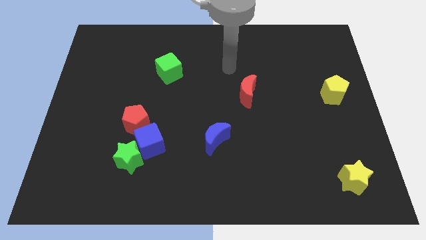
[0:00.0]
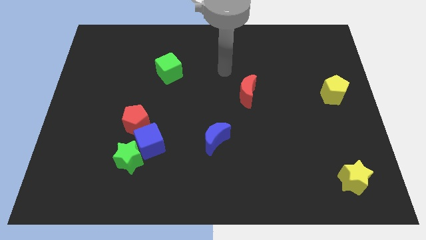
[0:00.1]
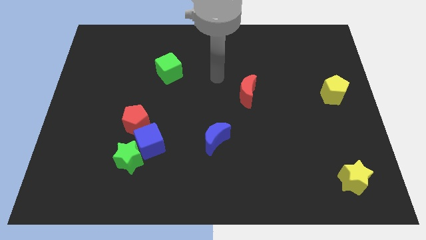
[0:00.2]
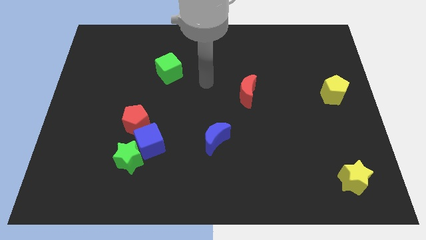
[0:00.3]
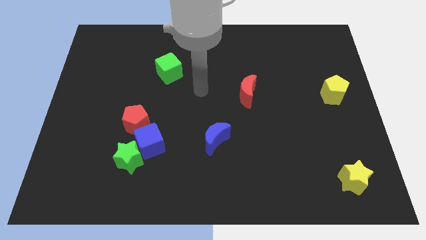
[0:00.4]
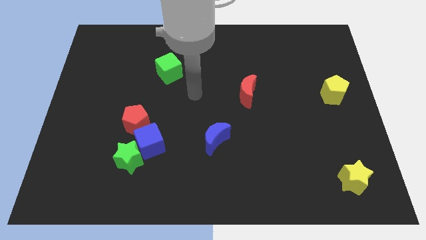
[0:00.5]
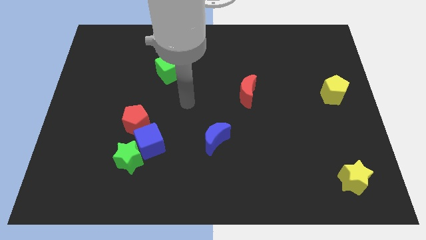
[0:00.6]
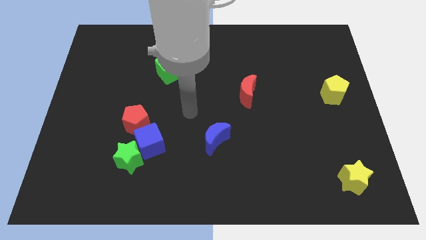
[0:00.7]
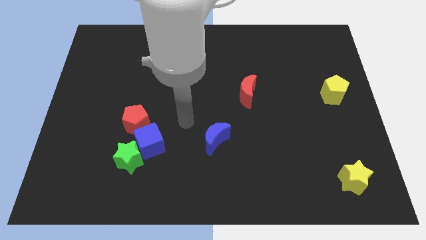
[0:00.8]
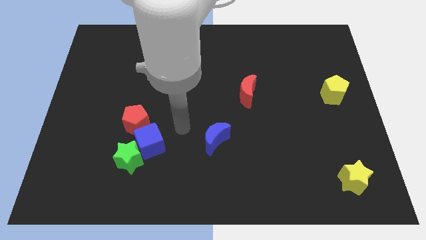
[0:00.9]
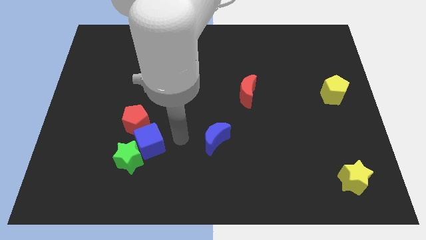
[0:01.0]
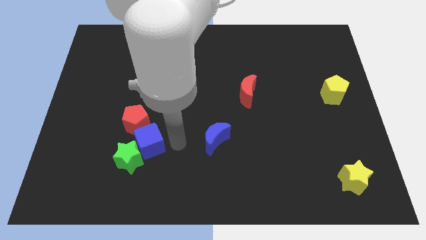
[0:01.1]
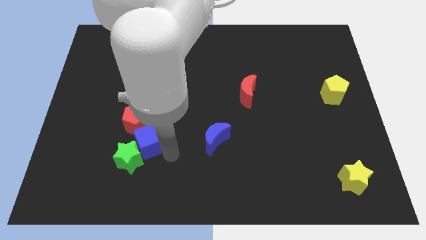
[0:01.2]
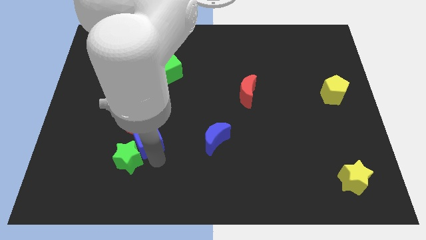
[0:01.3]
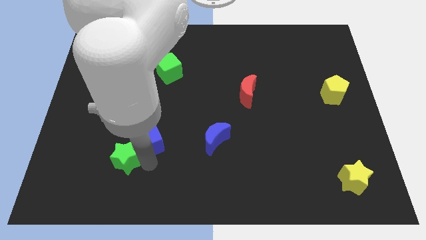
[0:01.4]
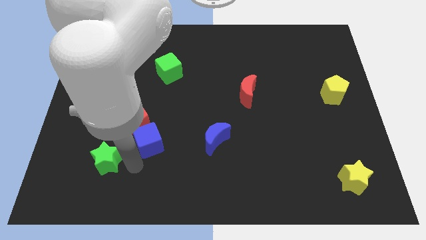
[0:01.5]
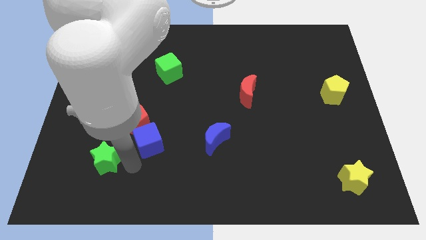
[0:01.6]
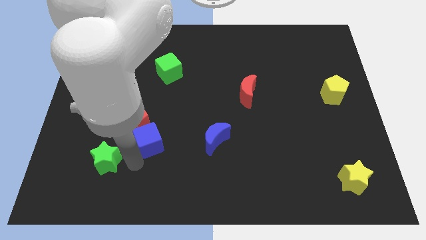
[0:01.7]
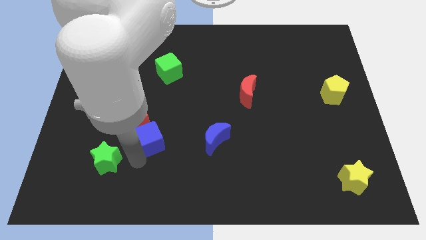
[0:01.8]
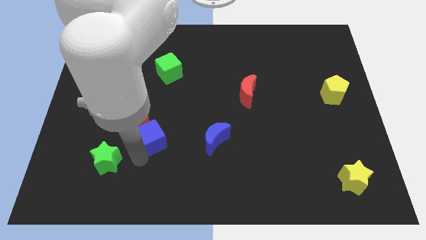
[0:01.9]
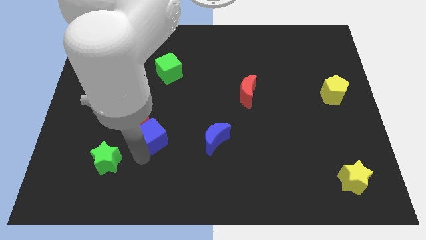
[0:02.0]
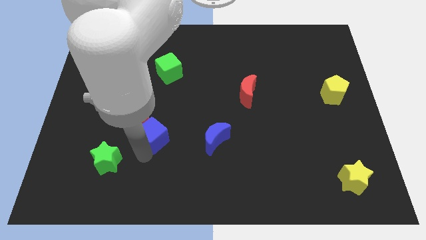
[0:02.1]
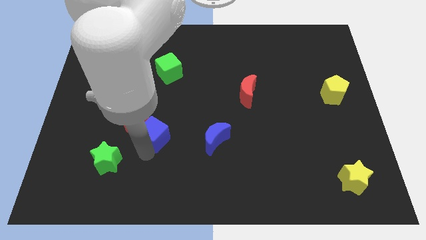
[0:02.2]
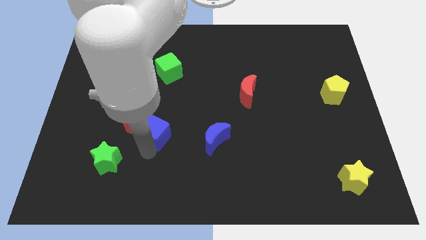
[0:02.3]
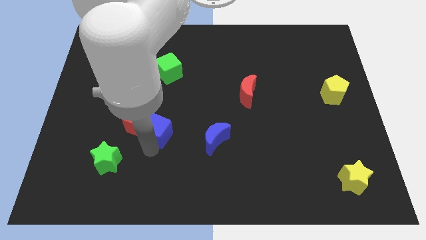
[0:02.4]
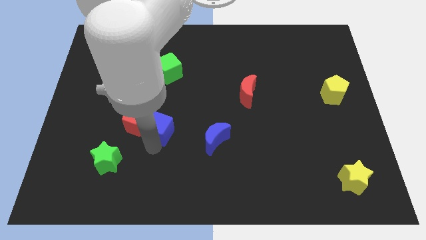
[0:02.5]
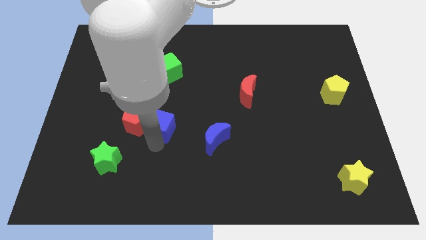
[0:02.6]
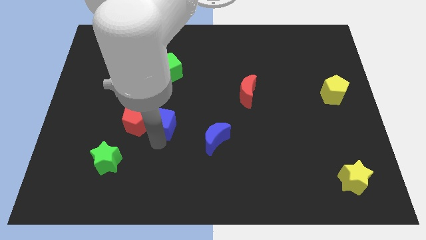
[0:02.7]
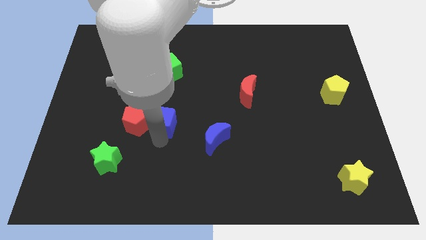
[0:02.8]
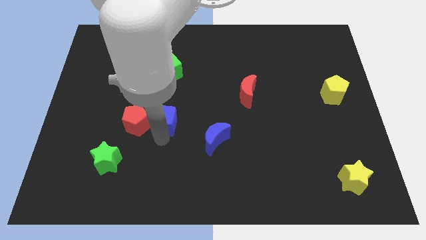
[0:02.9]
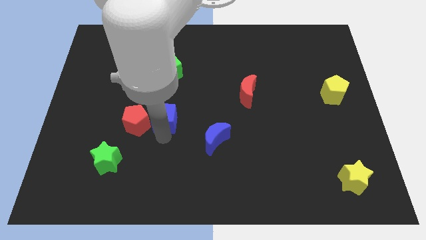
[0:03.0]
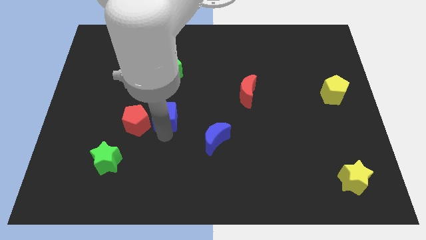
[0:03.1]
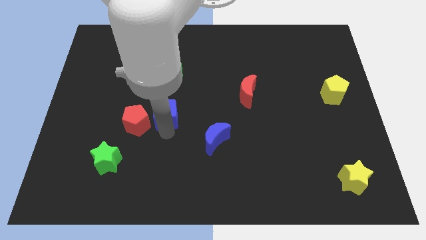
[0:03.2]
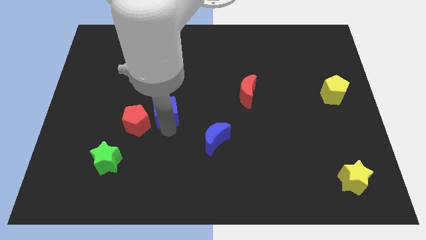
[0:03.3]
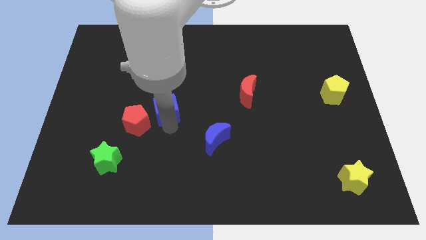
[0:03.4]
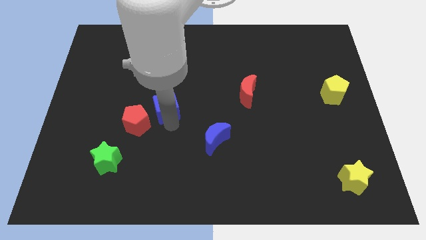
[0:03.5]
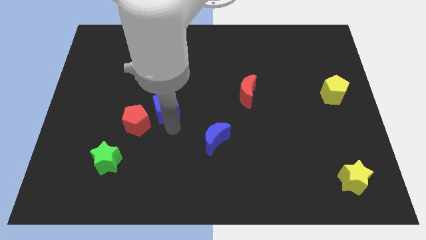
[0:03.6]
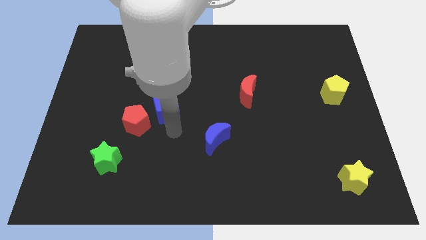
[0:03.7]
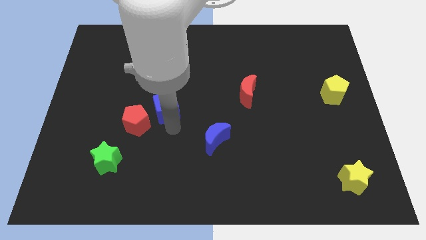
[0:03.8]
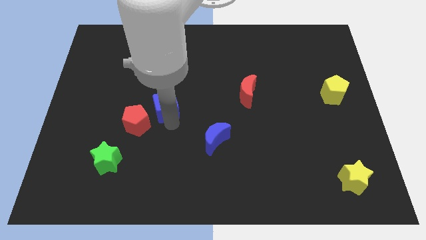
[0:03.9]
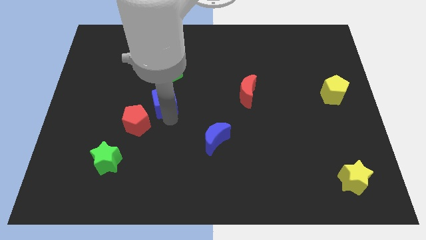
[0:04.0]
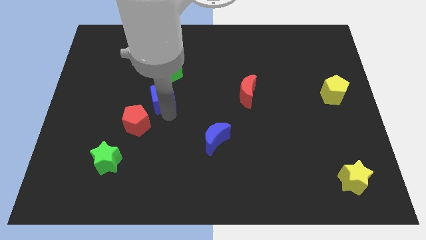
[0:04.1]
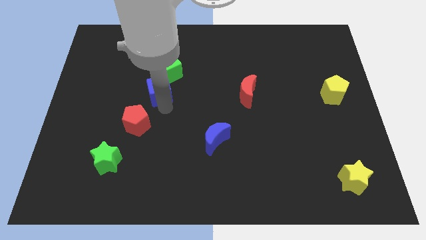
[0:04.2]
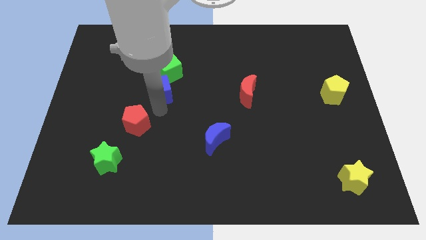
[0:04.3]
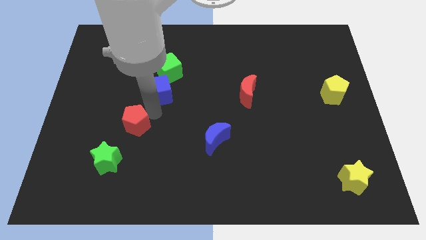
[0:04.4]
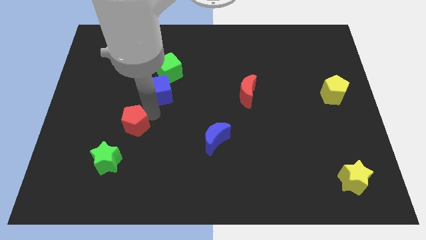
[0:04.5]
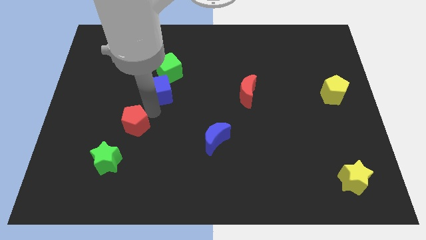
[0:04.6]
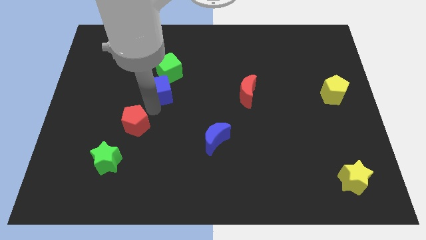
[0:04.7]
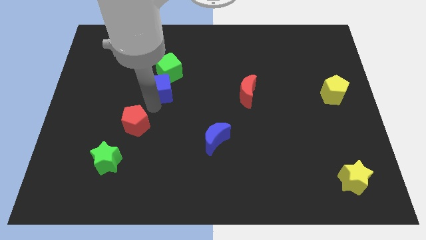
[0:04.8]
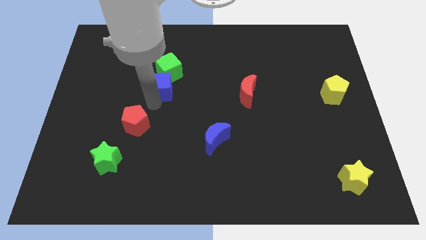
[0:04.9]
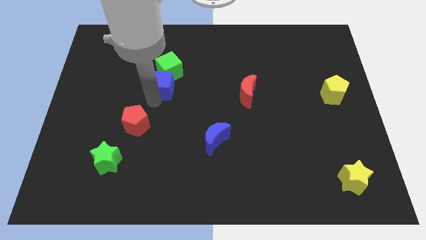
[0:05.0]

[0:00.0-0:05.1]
push the blue cube to the green cube

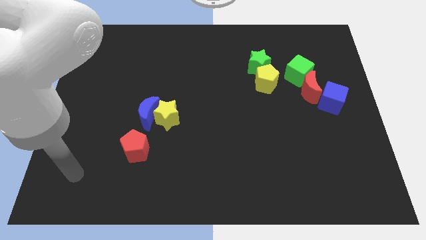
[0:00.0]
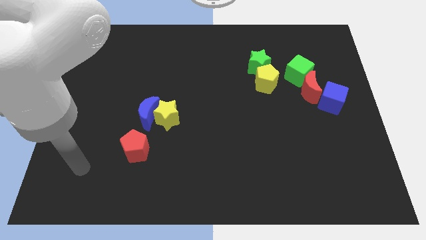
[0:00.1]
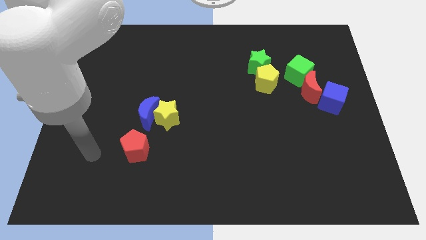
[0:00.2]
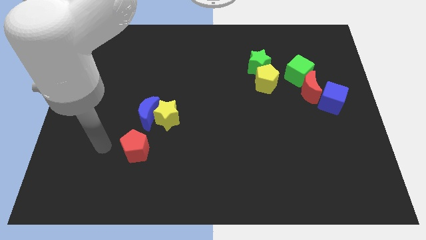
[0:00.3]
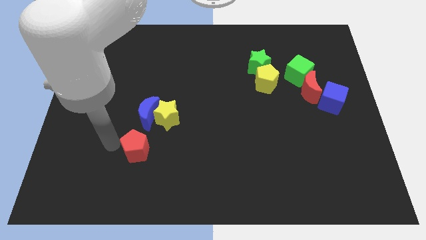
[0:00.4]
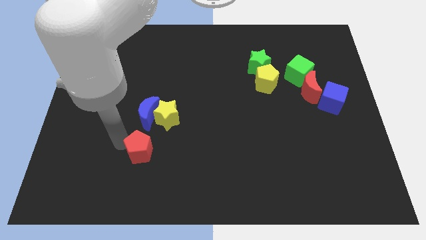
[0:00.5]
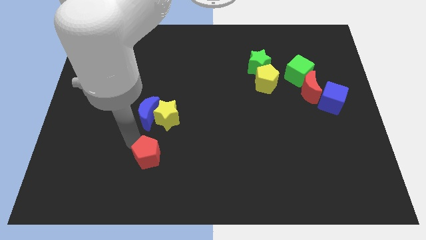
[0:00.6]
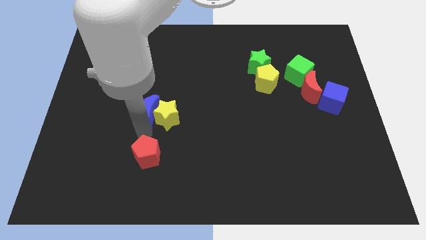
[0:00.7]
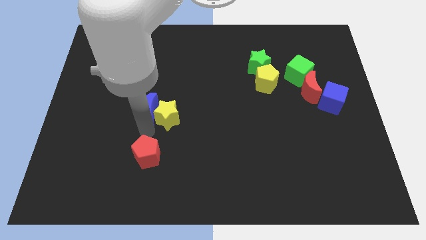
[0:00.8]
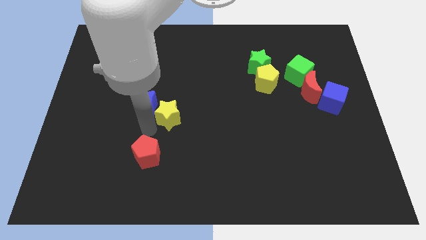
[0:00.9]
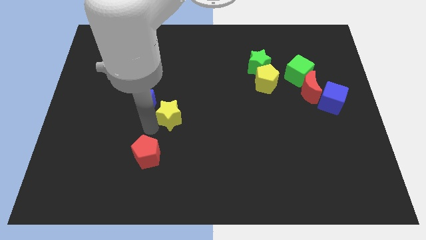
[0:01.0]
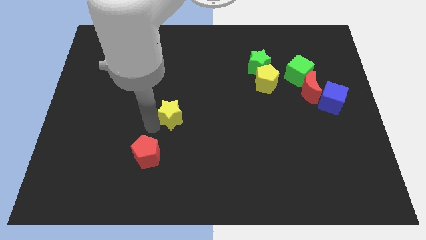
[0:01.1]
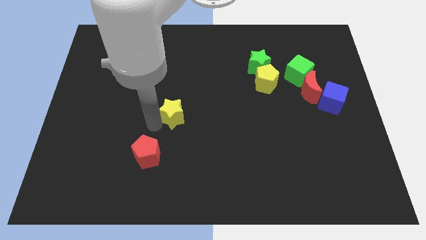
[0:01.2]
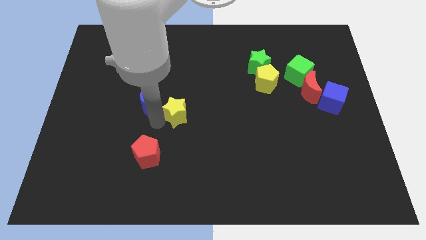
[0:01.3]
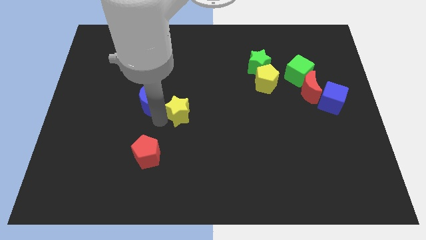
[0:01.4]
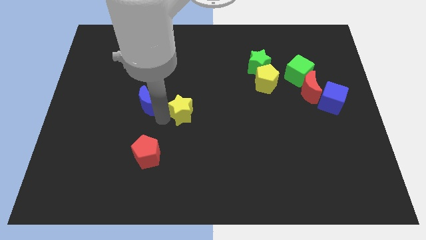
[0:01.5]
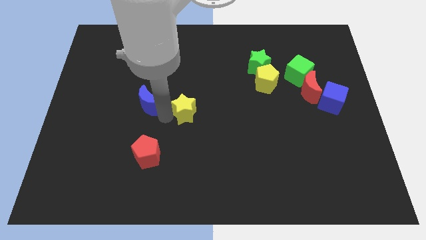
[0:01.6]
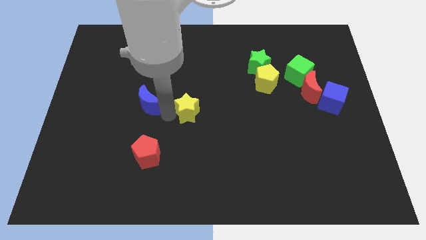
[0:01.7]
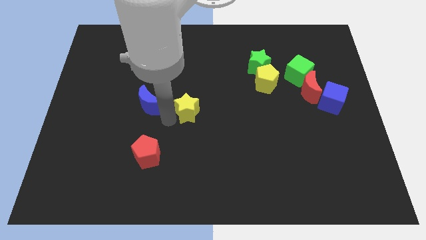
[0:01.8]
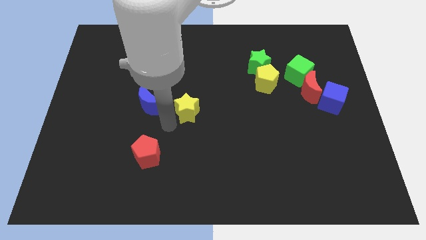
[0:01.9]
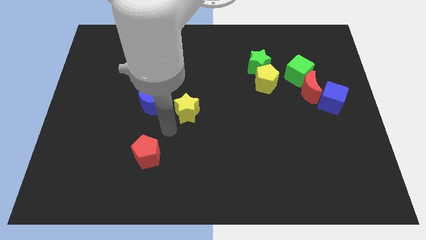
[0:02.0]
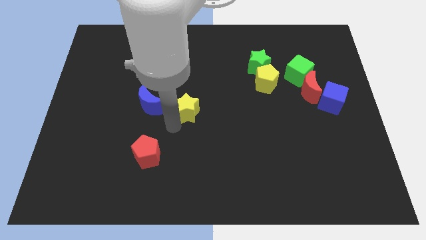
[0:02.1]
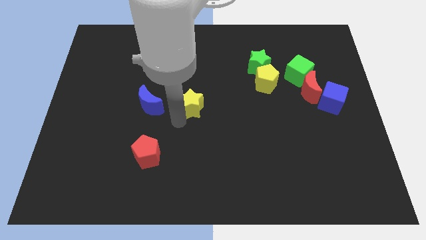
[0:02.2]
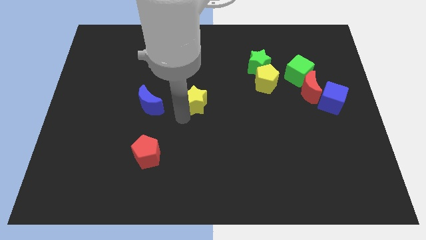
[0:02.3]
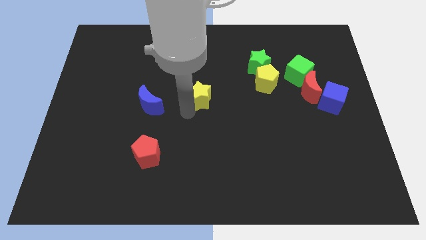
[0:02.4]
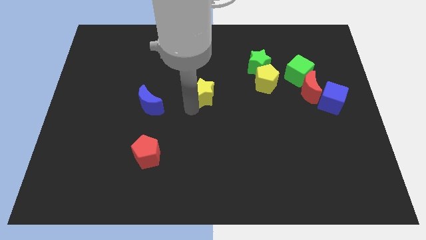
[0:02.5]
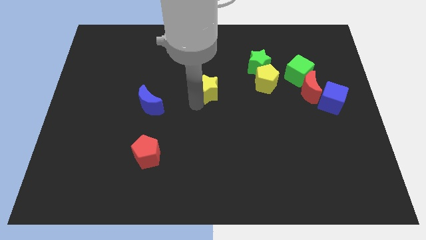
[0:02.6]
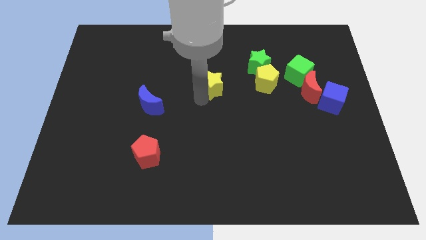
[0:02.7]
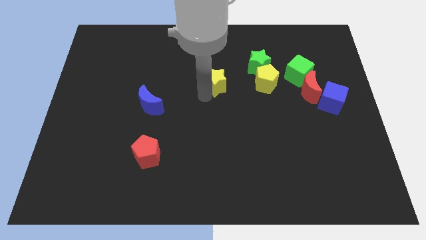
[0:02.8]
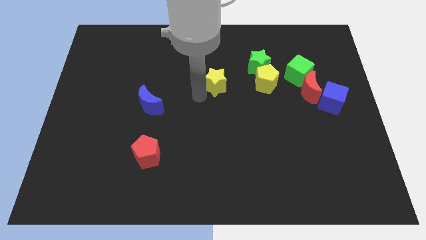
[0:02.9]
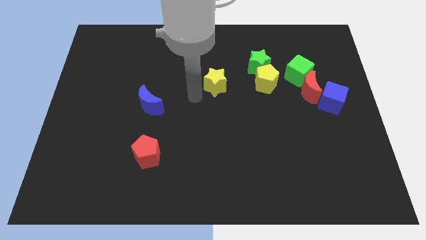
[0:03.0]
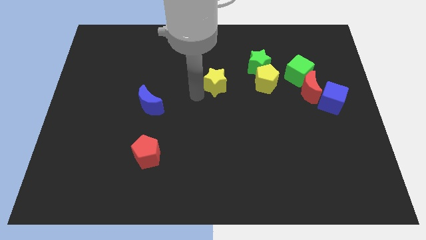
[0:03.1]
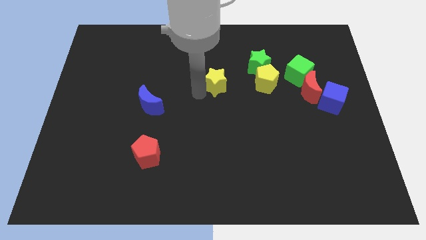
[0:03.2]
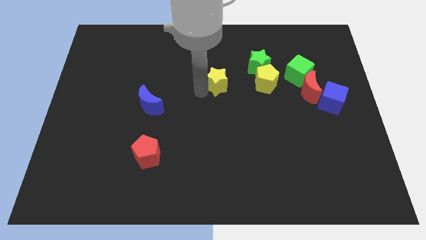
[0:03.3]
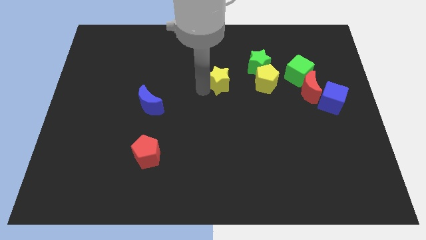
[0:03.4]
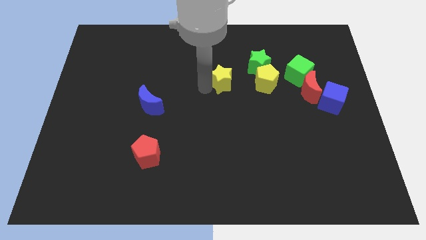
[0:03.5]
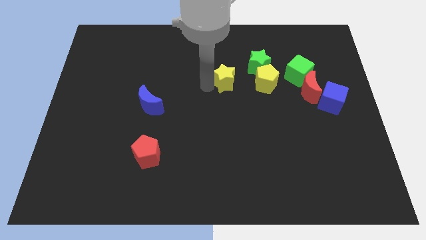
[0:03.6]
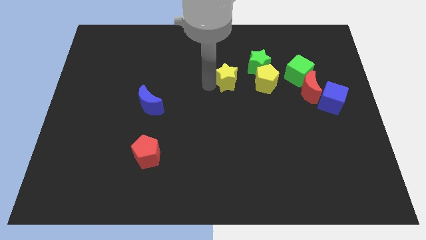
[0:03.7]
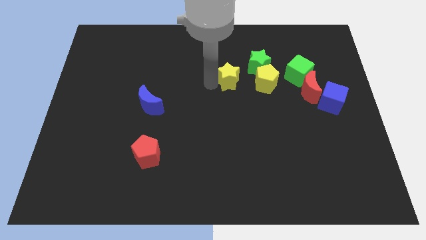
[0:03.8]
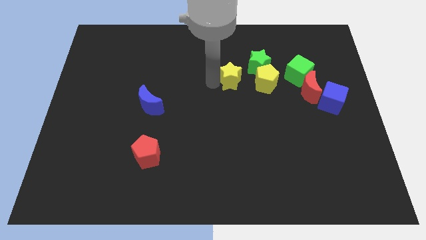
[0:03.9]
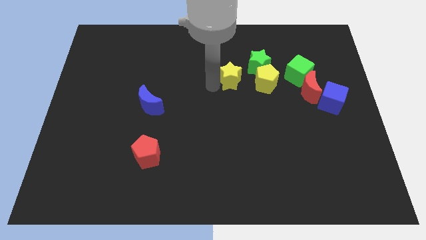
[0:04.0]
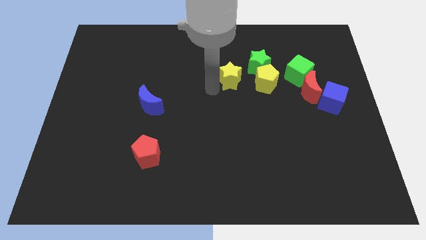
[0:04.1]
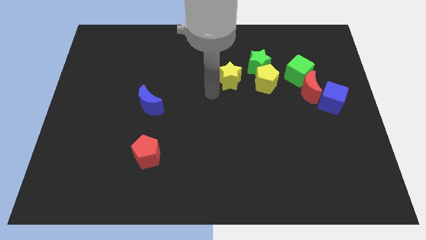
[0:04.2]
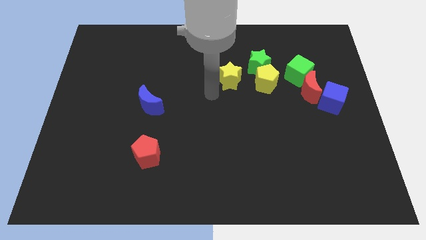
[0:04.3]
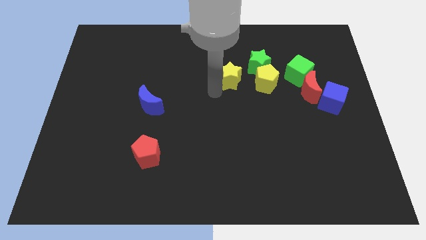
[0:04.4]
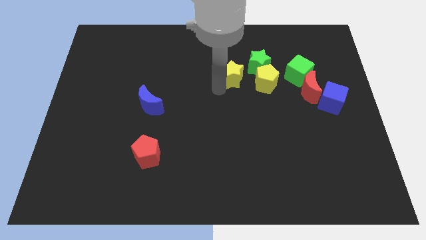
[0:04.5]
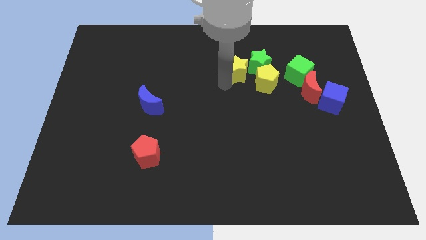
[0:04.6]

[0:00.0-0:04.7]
slide the yellow star to the green star
